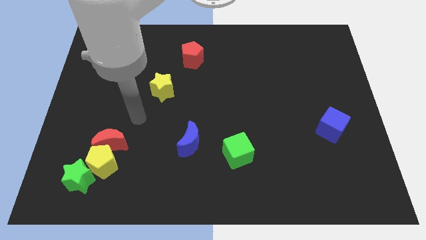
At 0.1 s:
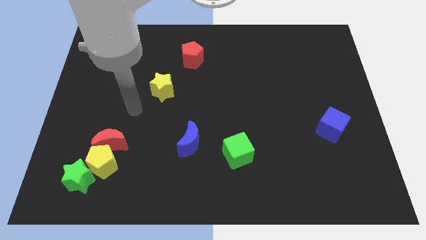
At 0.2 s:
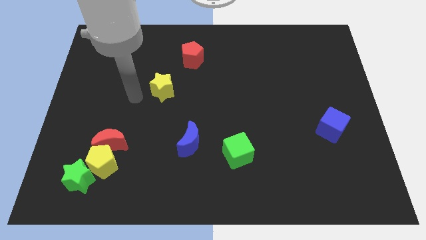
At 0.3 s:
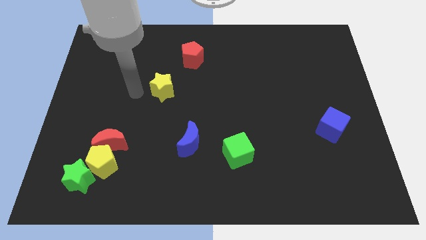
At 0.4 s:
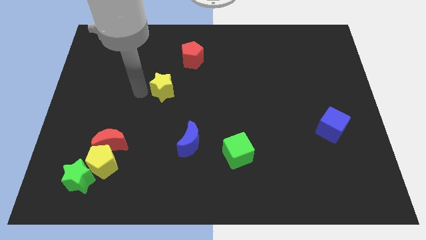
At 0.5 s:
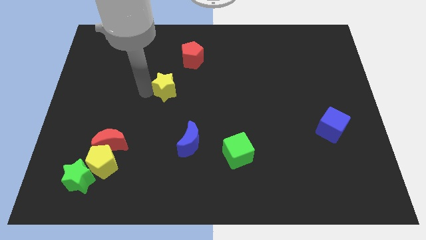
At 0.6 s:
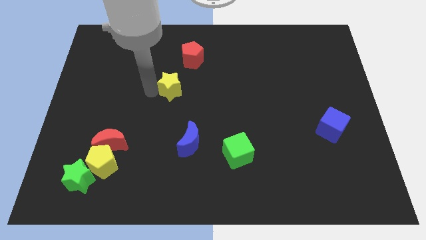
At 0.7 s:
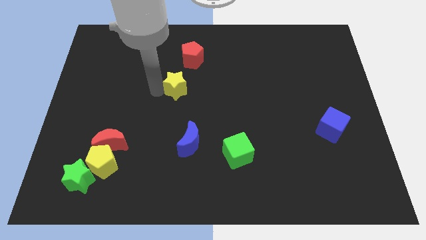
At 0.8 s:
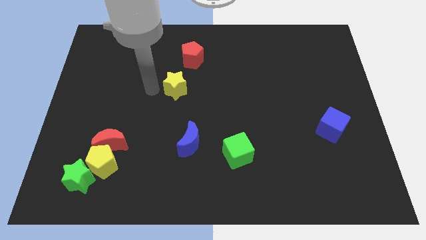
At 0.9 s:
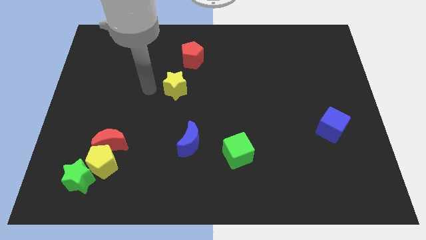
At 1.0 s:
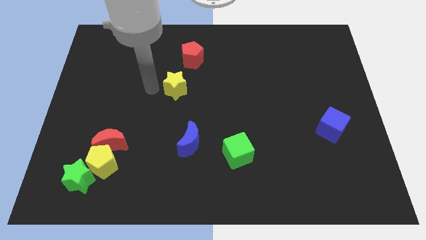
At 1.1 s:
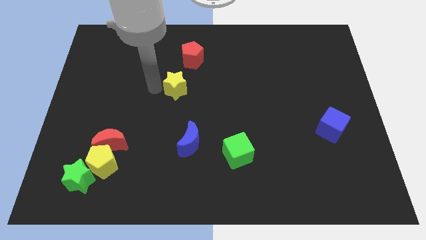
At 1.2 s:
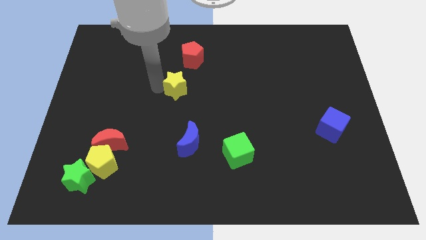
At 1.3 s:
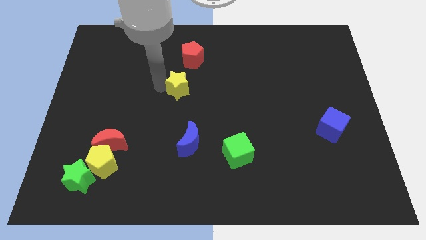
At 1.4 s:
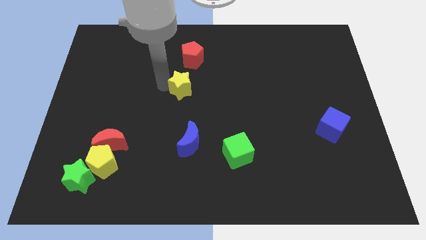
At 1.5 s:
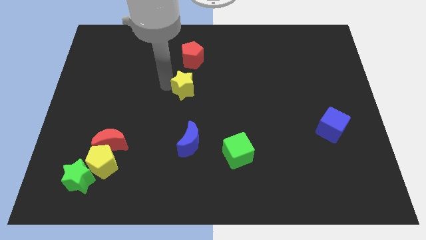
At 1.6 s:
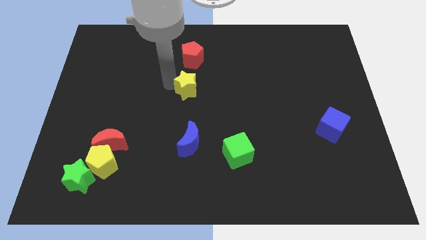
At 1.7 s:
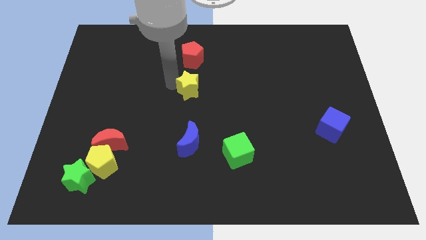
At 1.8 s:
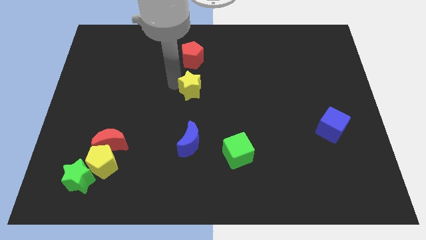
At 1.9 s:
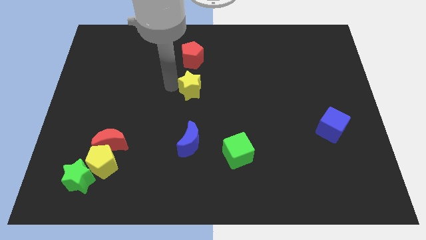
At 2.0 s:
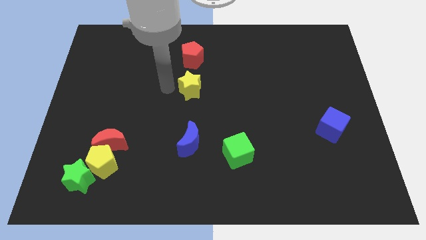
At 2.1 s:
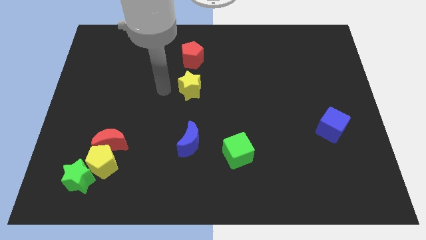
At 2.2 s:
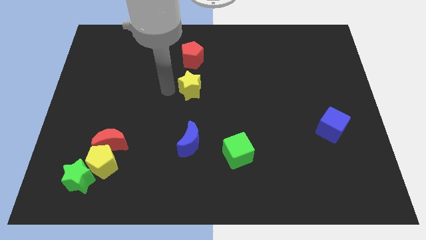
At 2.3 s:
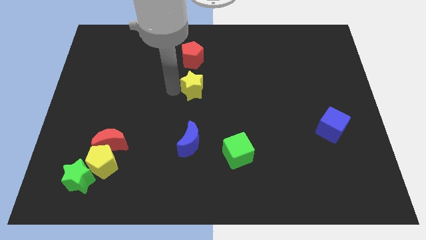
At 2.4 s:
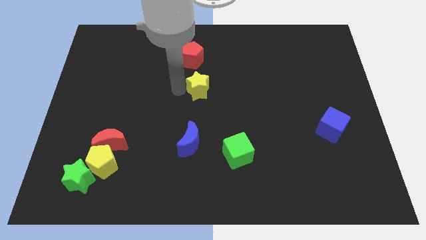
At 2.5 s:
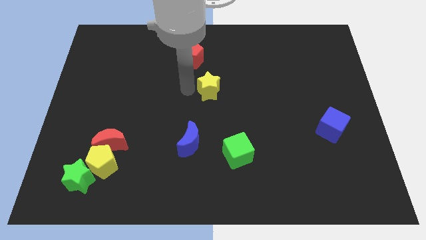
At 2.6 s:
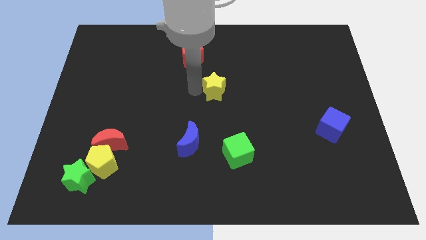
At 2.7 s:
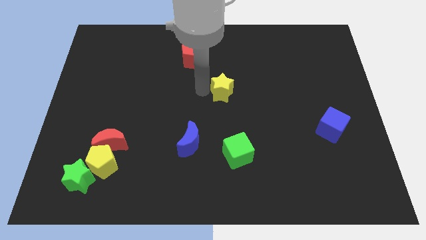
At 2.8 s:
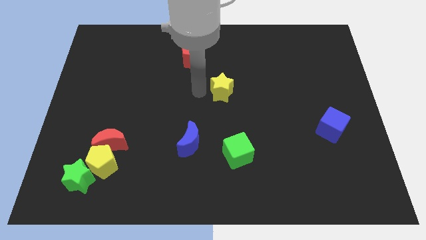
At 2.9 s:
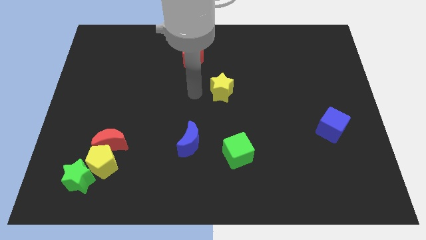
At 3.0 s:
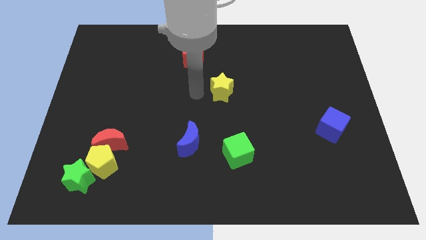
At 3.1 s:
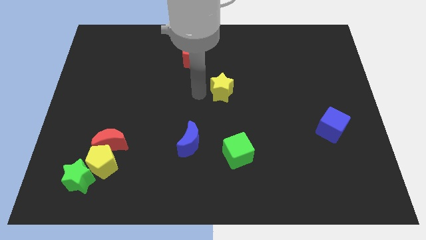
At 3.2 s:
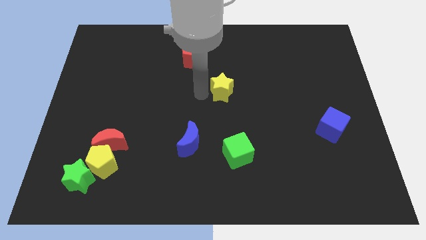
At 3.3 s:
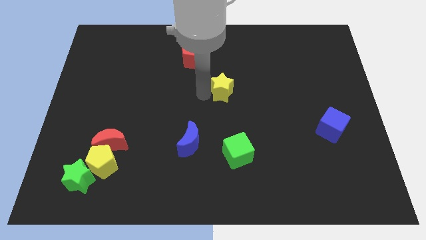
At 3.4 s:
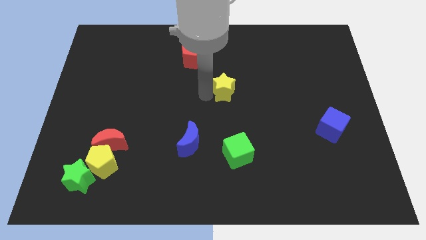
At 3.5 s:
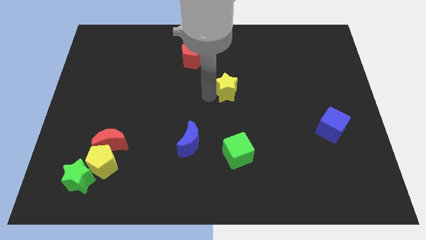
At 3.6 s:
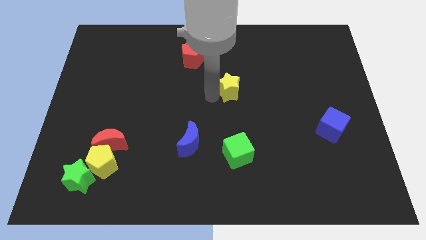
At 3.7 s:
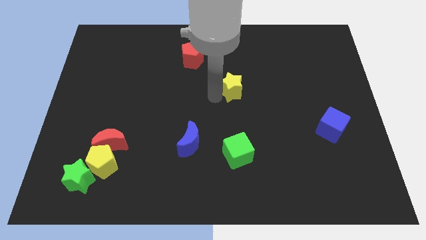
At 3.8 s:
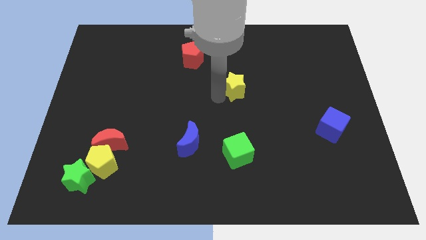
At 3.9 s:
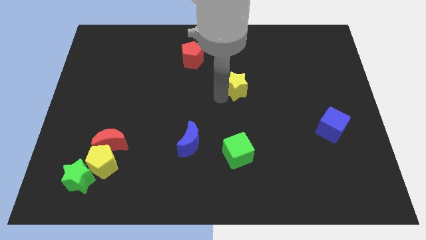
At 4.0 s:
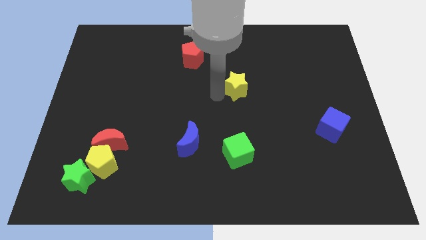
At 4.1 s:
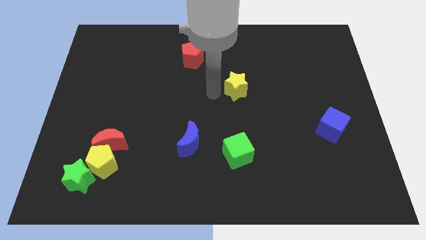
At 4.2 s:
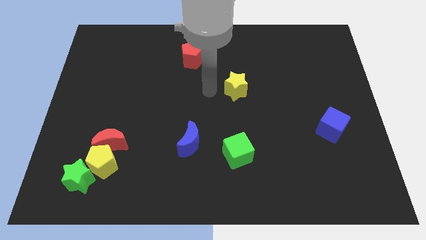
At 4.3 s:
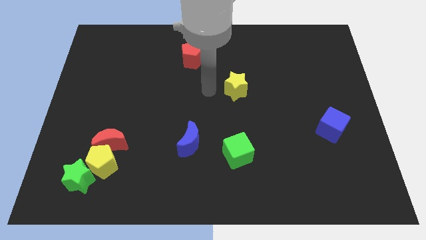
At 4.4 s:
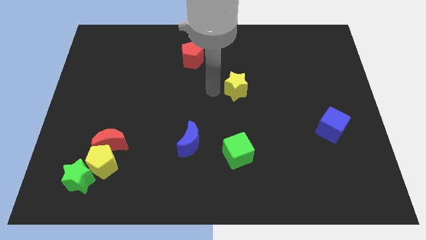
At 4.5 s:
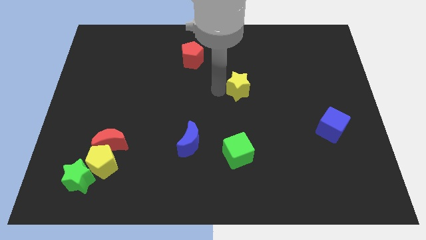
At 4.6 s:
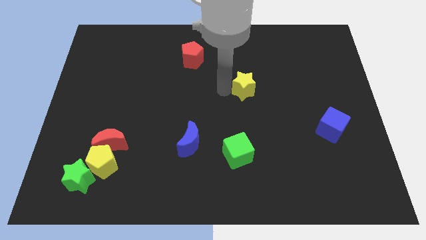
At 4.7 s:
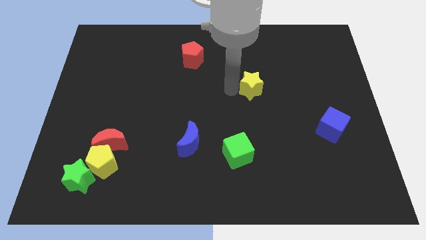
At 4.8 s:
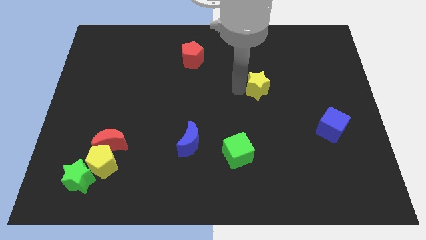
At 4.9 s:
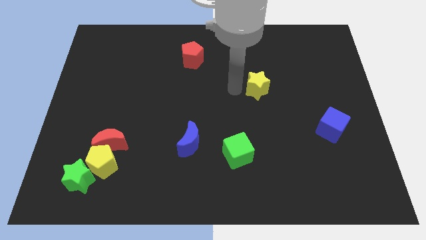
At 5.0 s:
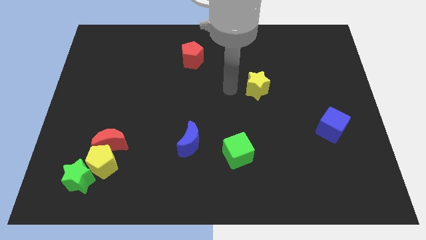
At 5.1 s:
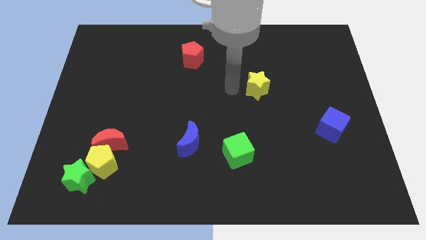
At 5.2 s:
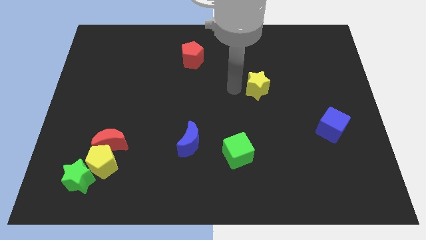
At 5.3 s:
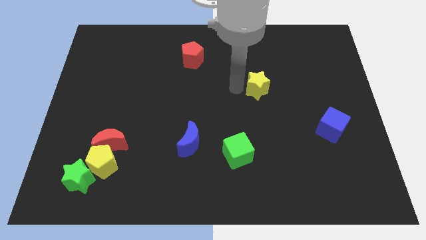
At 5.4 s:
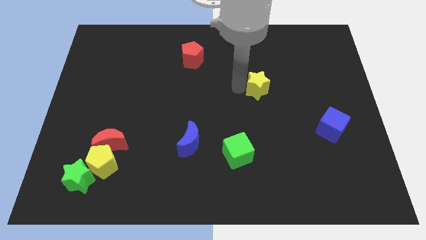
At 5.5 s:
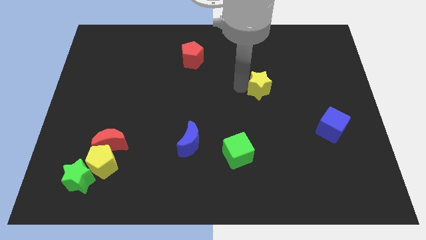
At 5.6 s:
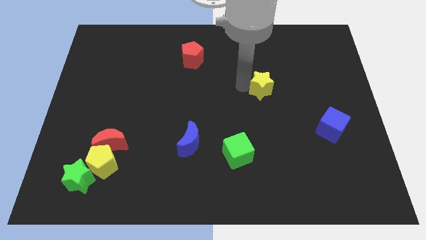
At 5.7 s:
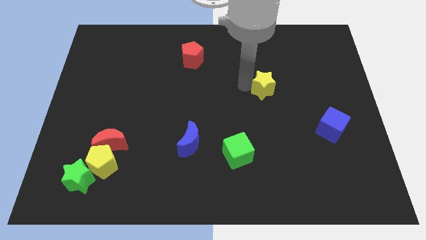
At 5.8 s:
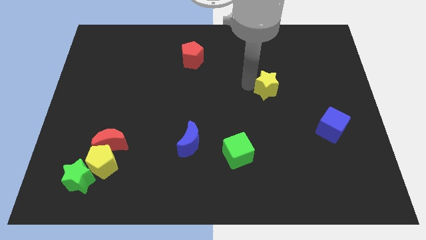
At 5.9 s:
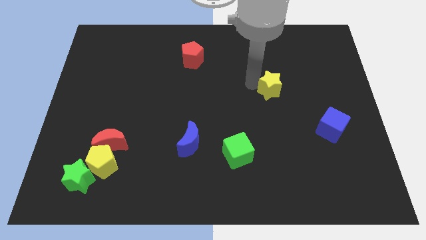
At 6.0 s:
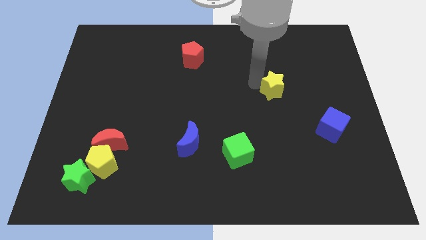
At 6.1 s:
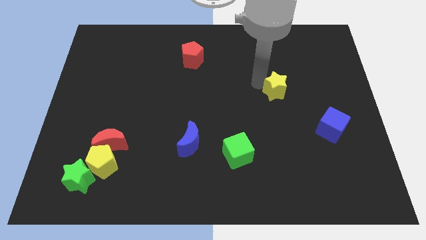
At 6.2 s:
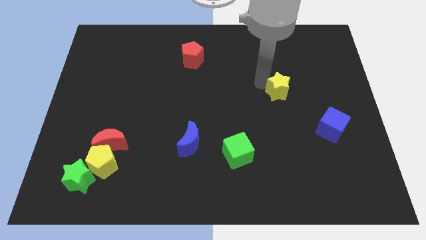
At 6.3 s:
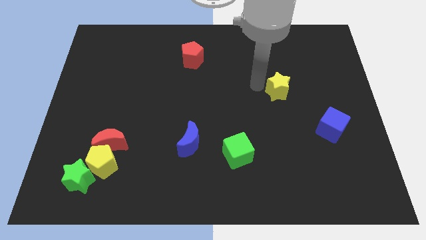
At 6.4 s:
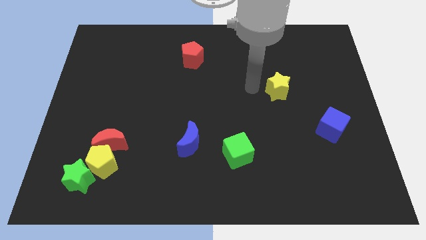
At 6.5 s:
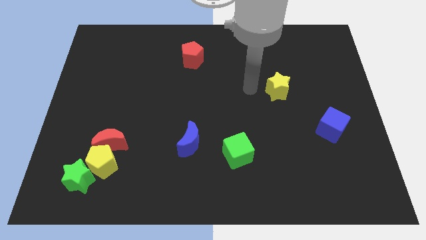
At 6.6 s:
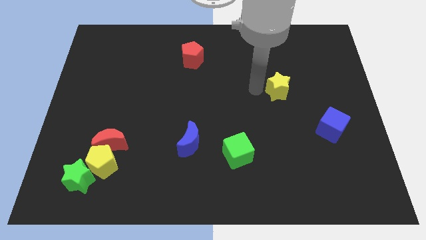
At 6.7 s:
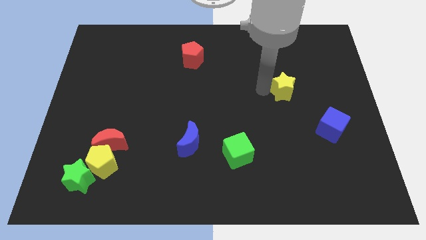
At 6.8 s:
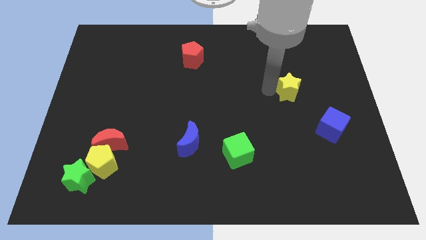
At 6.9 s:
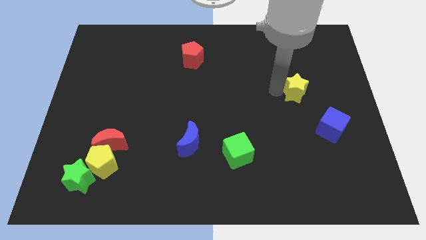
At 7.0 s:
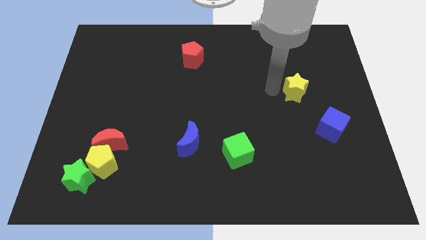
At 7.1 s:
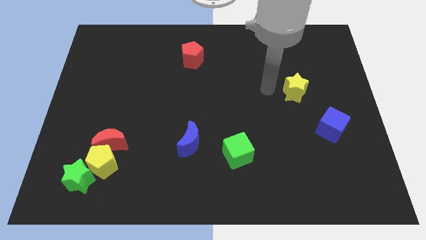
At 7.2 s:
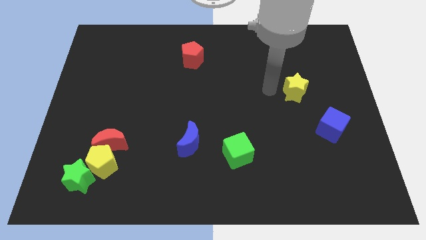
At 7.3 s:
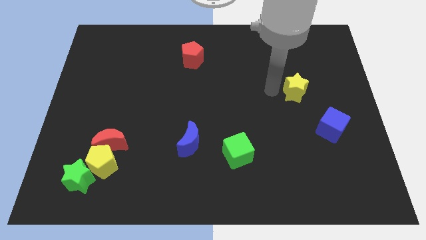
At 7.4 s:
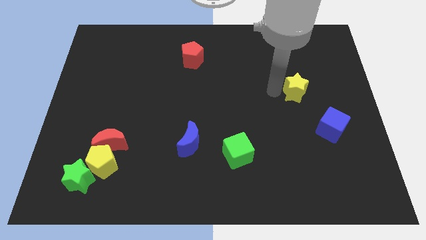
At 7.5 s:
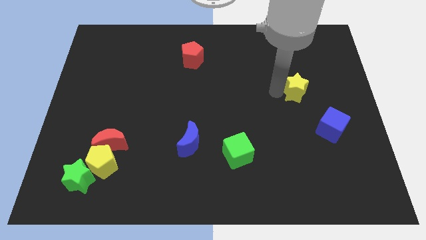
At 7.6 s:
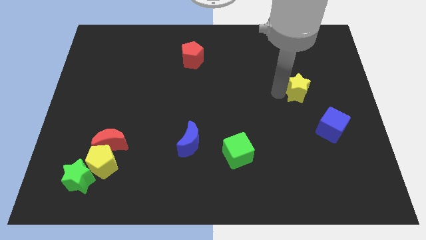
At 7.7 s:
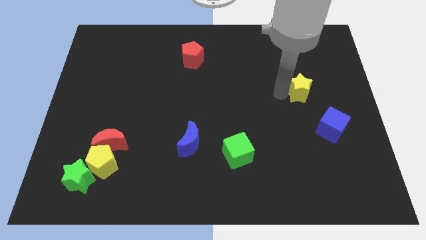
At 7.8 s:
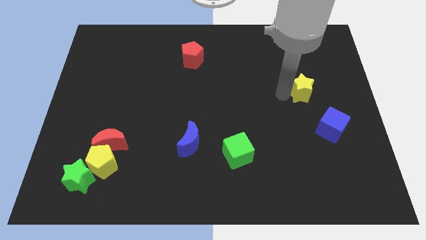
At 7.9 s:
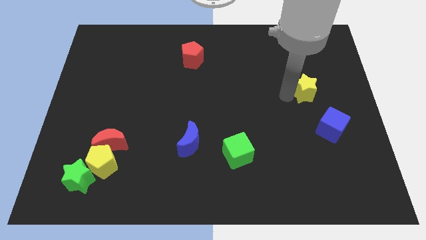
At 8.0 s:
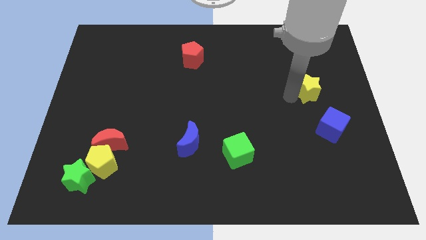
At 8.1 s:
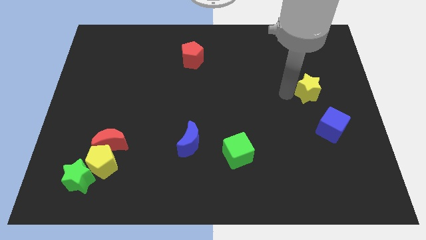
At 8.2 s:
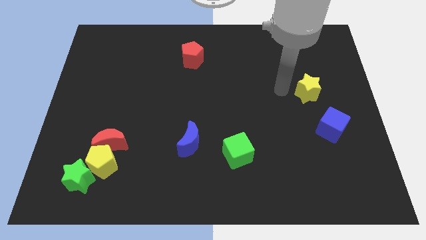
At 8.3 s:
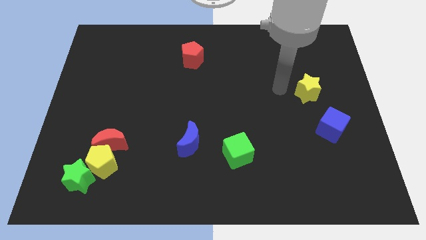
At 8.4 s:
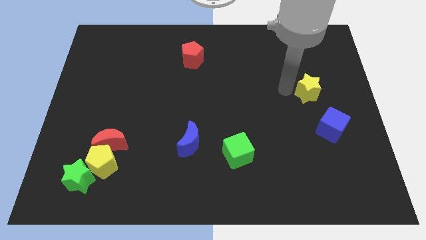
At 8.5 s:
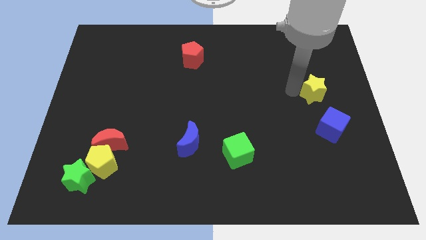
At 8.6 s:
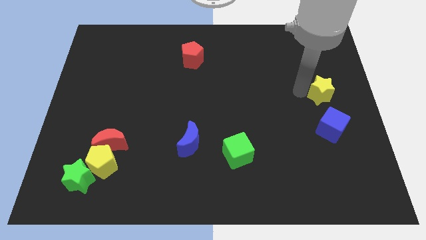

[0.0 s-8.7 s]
push the yellow star to the center right
